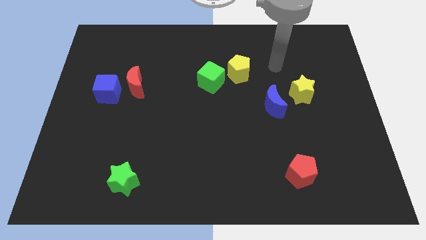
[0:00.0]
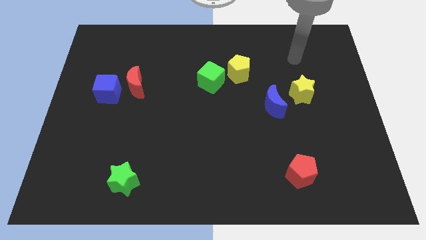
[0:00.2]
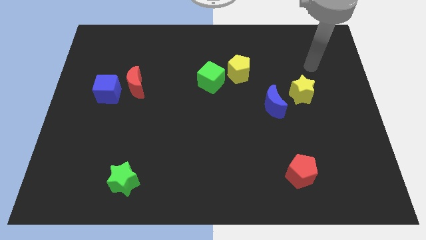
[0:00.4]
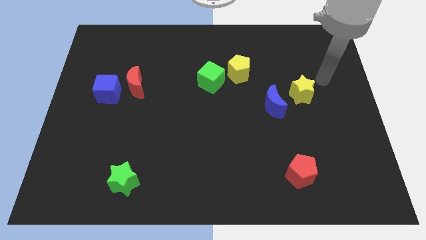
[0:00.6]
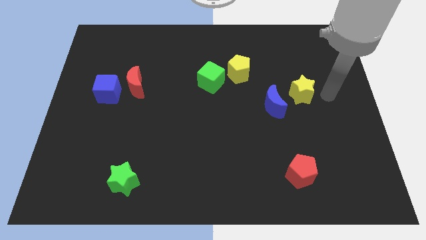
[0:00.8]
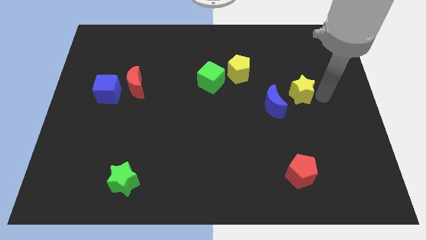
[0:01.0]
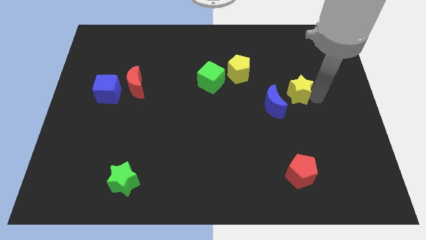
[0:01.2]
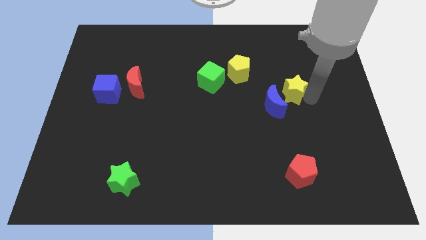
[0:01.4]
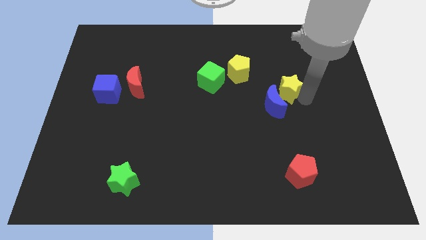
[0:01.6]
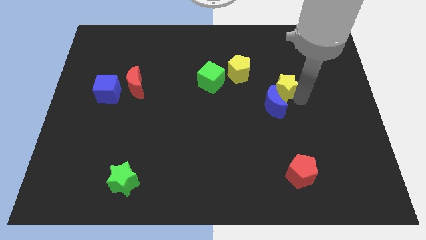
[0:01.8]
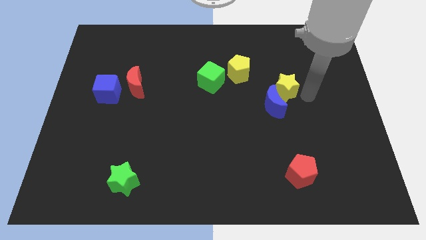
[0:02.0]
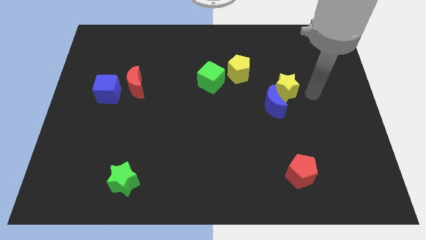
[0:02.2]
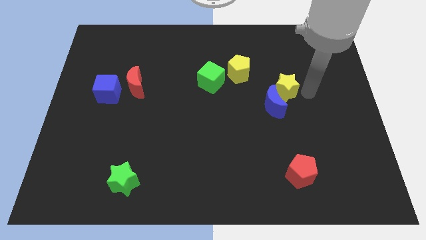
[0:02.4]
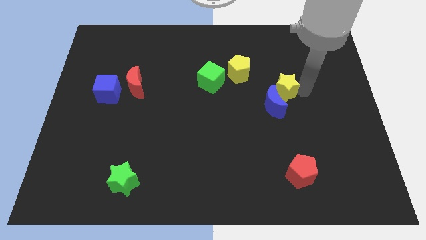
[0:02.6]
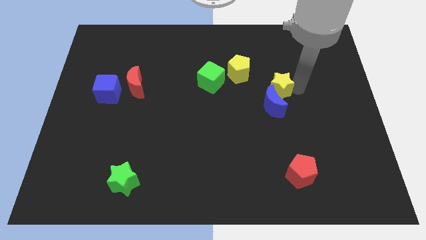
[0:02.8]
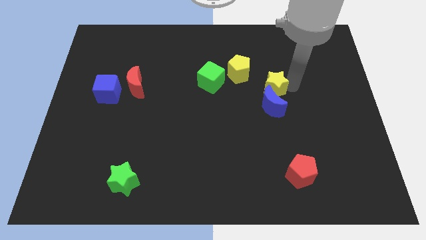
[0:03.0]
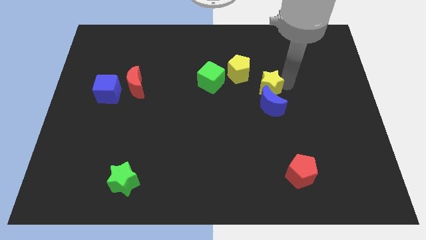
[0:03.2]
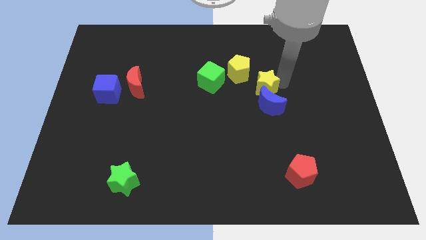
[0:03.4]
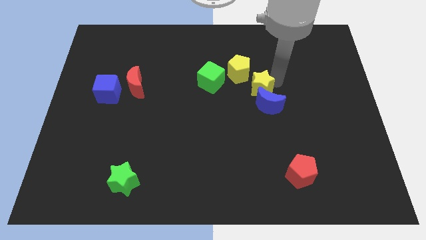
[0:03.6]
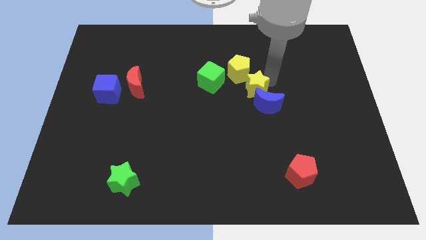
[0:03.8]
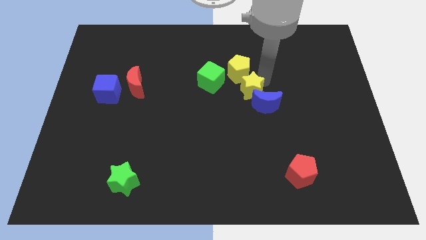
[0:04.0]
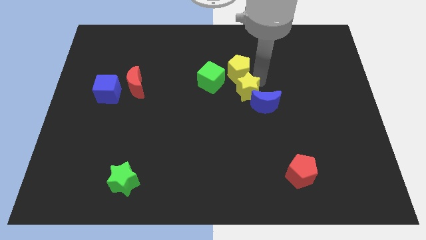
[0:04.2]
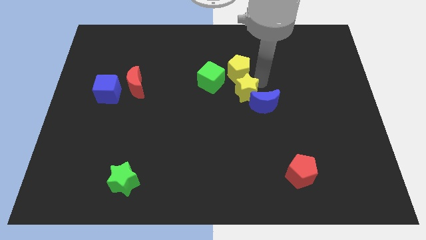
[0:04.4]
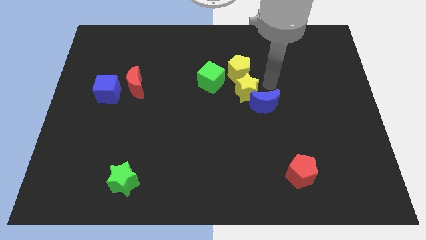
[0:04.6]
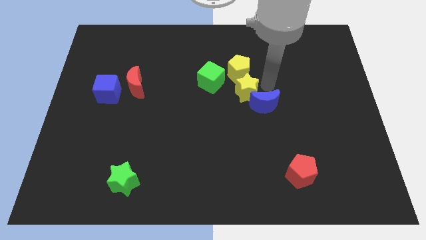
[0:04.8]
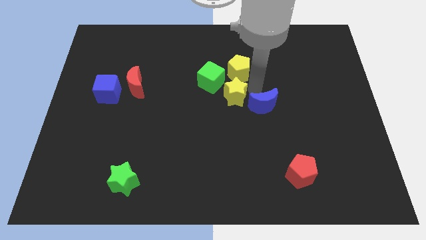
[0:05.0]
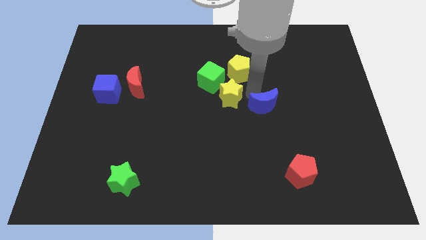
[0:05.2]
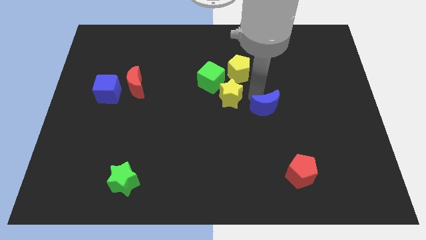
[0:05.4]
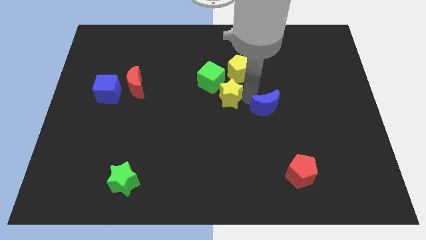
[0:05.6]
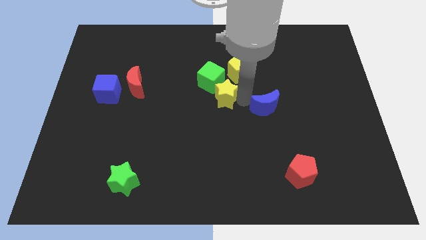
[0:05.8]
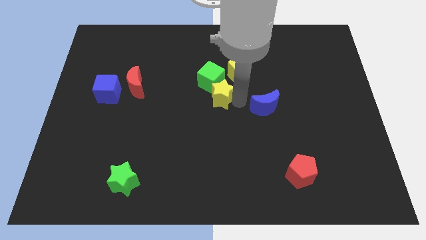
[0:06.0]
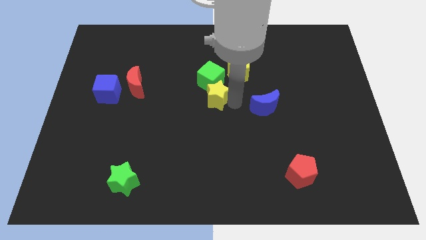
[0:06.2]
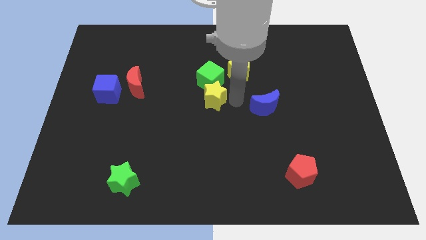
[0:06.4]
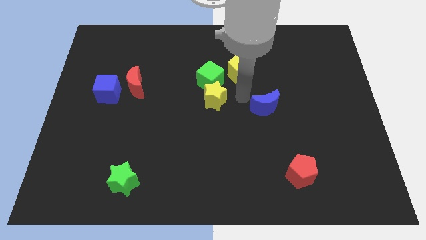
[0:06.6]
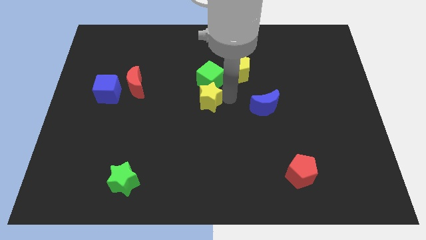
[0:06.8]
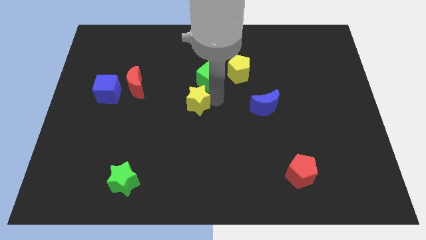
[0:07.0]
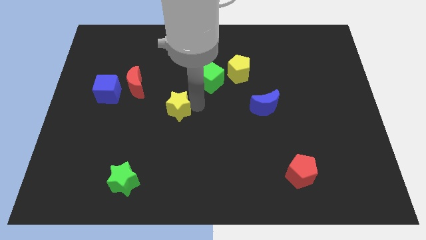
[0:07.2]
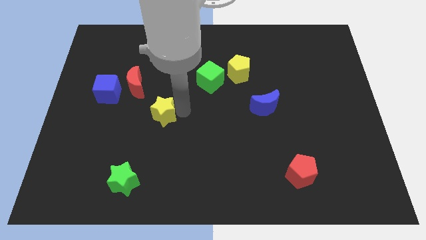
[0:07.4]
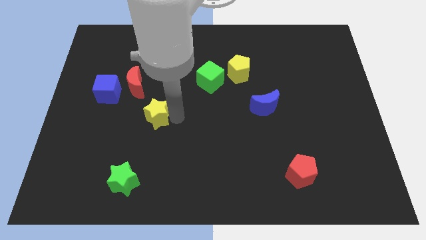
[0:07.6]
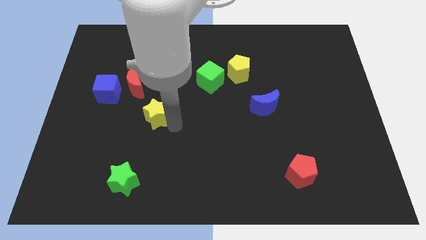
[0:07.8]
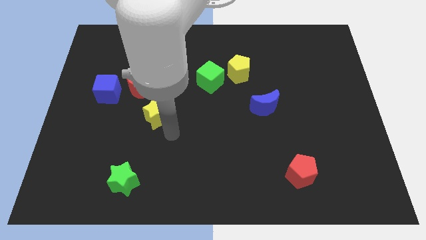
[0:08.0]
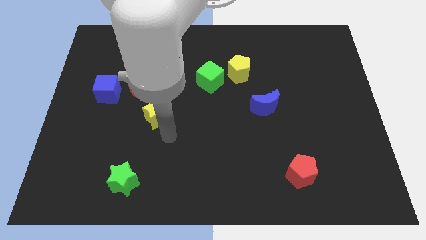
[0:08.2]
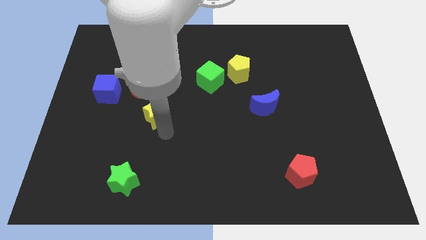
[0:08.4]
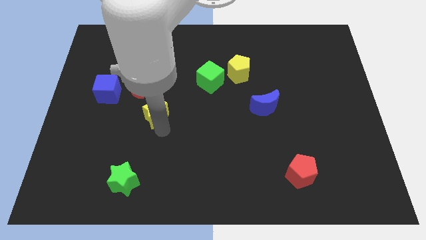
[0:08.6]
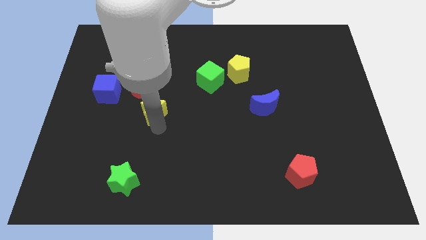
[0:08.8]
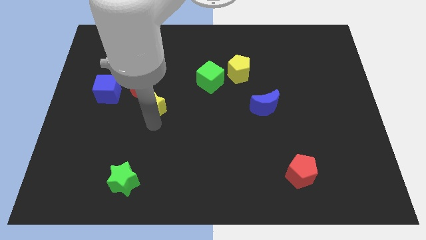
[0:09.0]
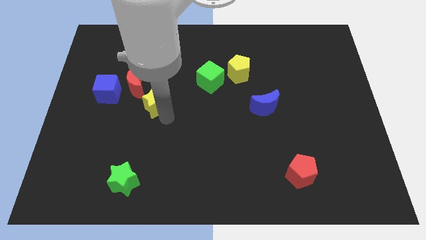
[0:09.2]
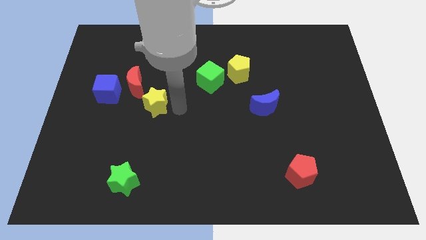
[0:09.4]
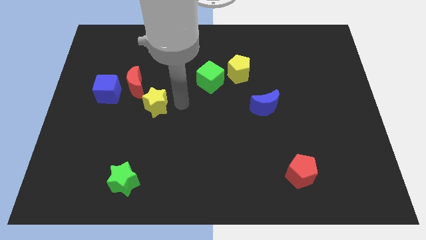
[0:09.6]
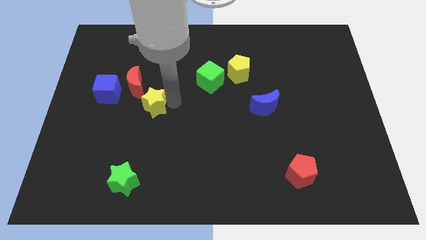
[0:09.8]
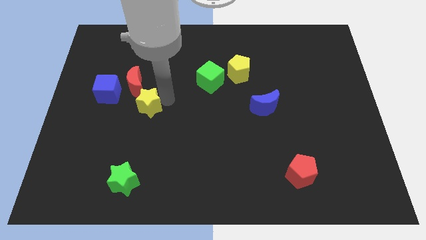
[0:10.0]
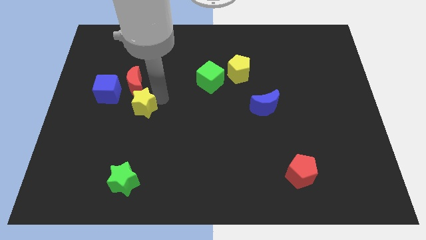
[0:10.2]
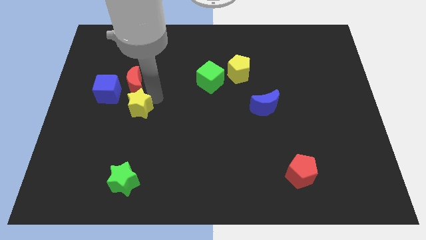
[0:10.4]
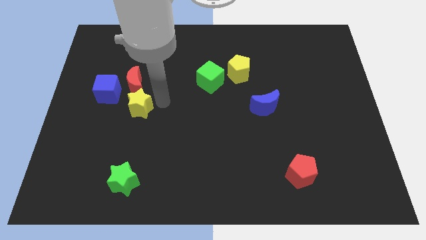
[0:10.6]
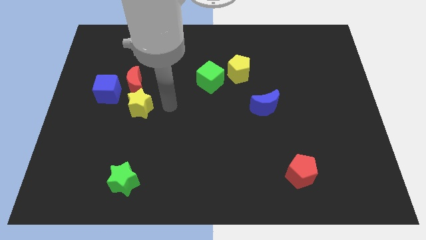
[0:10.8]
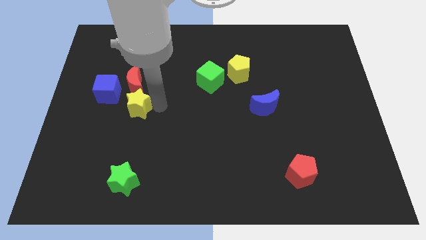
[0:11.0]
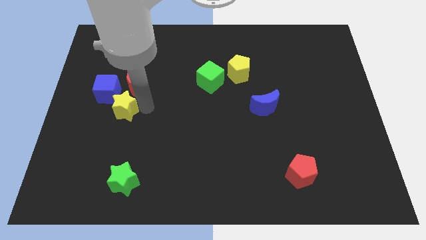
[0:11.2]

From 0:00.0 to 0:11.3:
put the yellow star to the bottom left side of the red moon

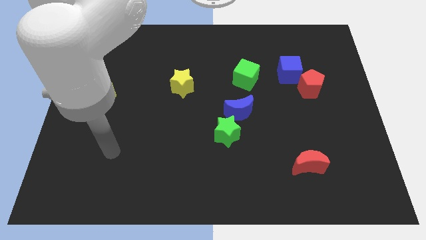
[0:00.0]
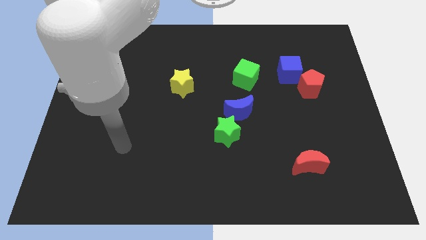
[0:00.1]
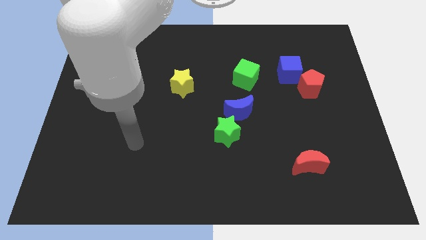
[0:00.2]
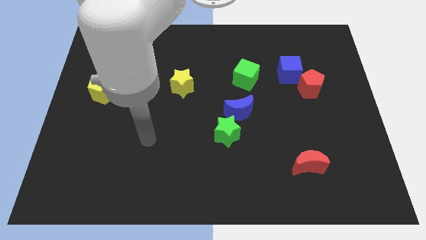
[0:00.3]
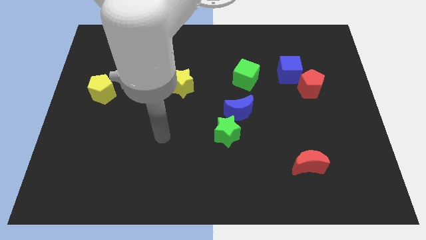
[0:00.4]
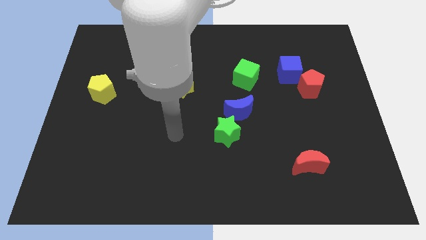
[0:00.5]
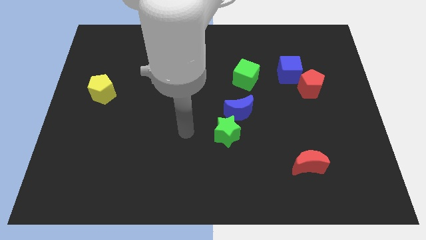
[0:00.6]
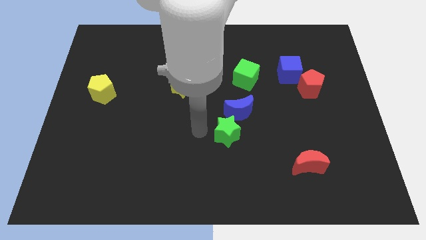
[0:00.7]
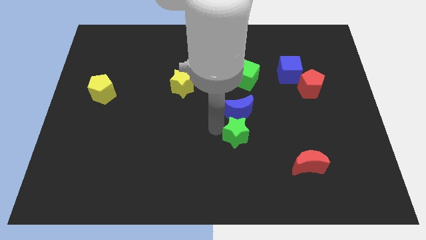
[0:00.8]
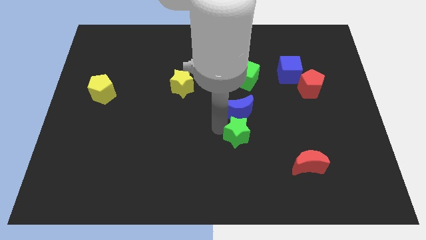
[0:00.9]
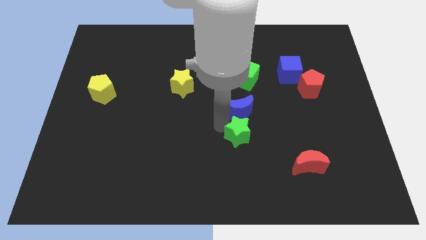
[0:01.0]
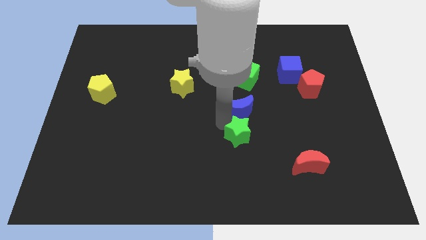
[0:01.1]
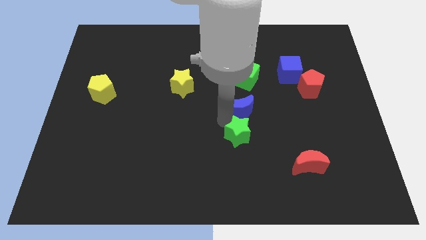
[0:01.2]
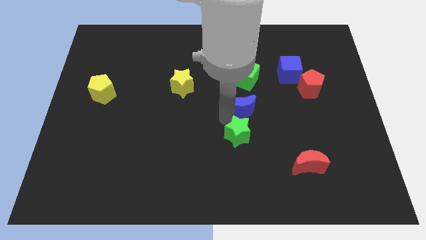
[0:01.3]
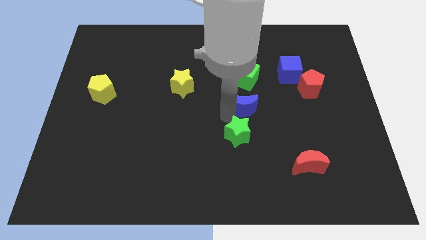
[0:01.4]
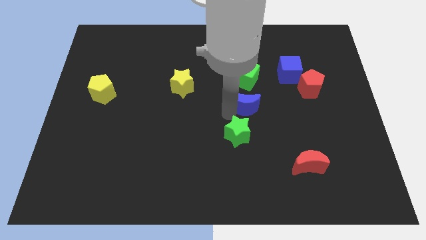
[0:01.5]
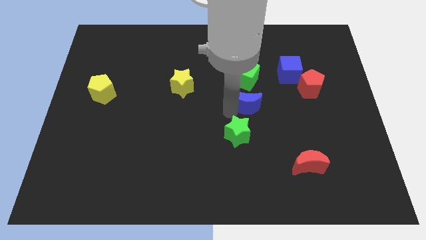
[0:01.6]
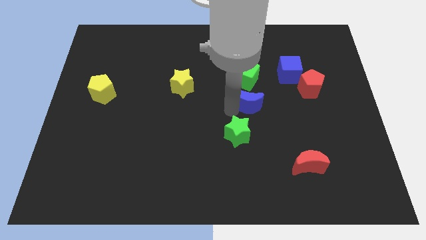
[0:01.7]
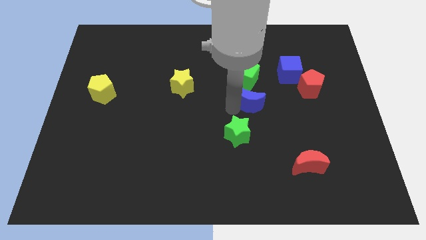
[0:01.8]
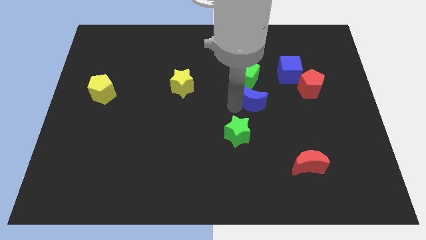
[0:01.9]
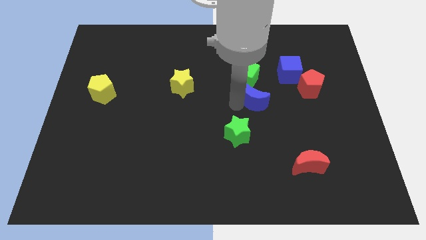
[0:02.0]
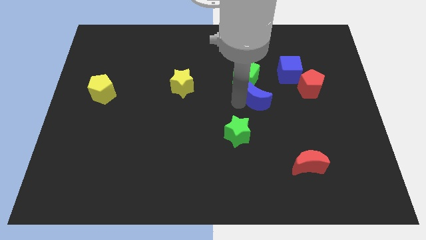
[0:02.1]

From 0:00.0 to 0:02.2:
slide the blue moon to the bottom left side of the blue cube
